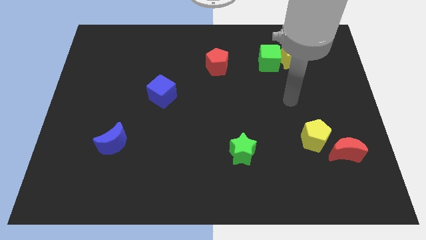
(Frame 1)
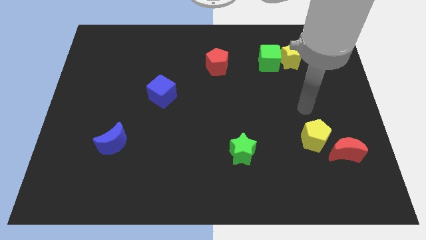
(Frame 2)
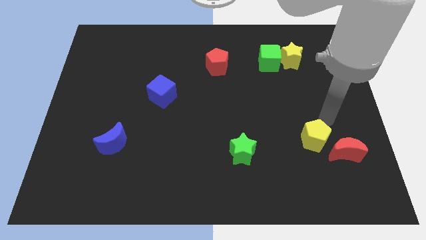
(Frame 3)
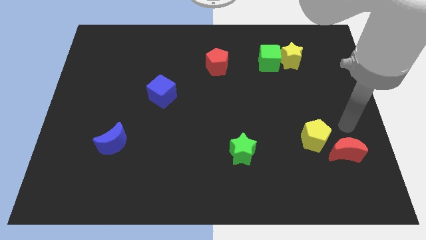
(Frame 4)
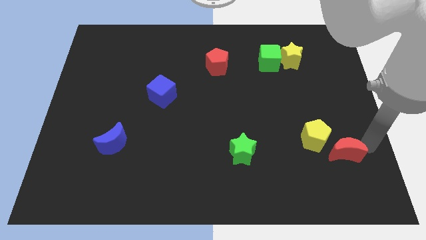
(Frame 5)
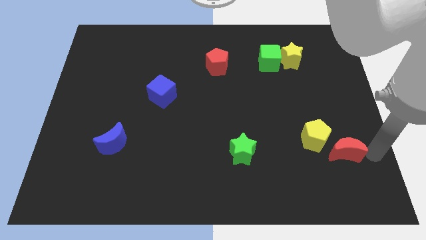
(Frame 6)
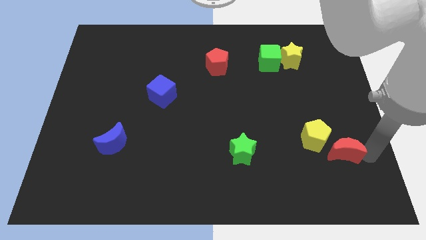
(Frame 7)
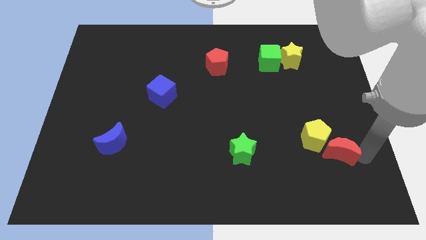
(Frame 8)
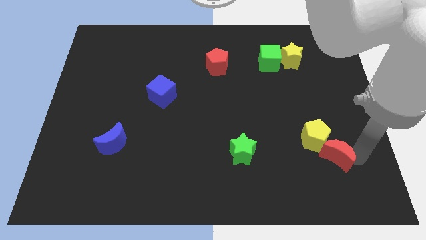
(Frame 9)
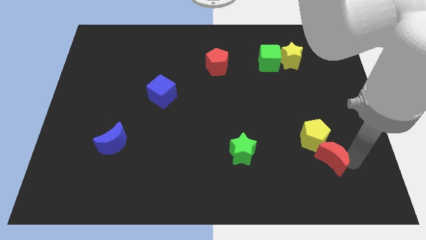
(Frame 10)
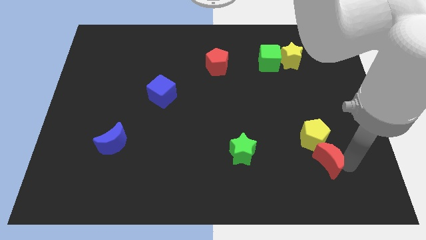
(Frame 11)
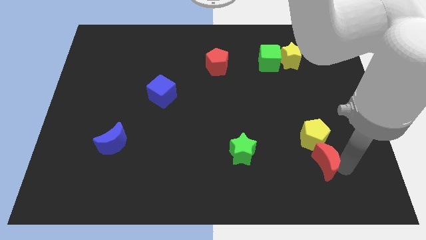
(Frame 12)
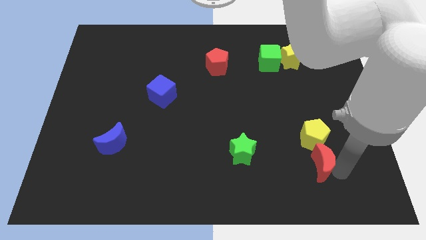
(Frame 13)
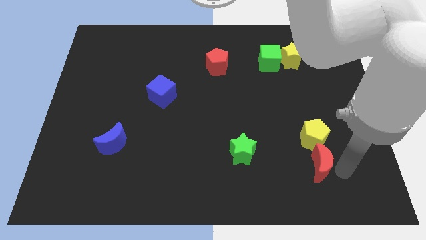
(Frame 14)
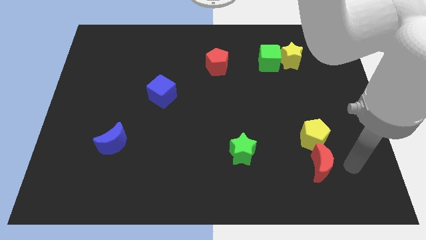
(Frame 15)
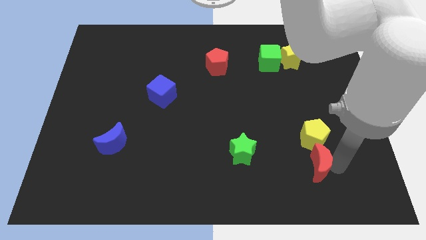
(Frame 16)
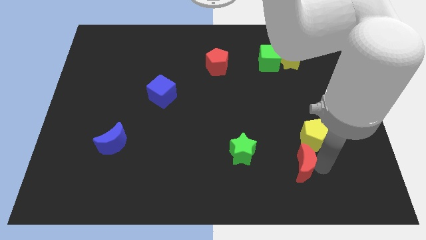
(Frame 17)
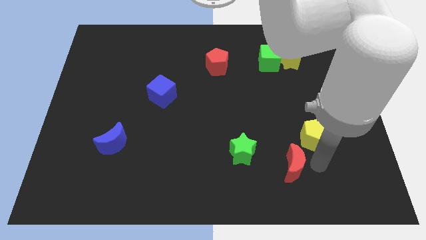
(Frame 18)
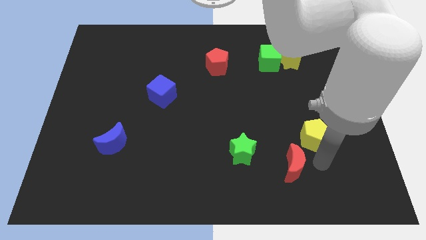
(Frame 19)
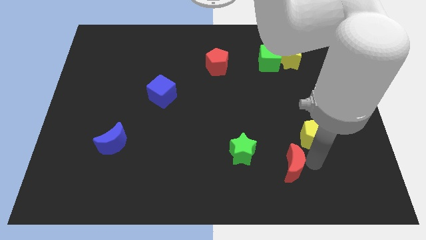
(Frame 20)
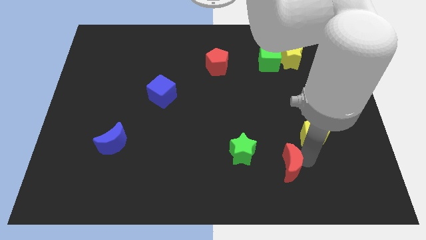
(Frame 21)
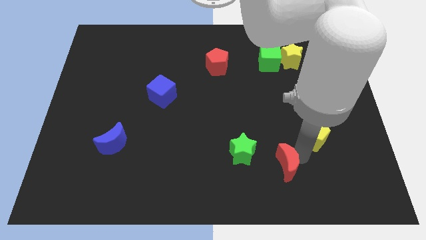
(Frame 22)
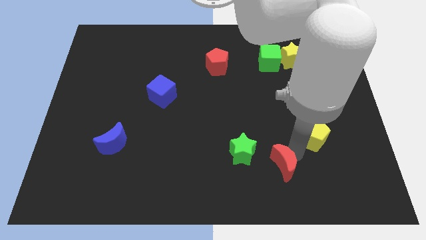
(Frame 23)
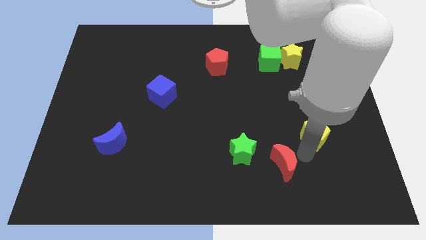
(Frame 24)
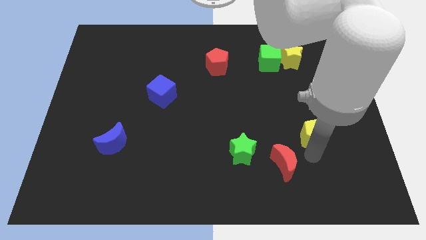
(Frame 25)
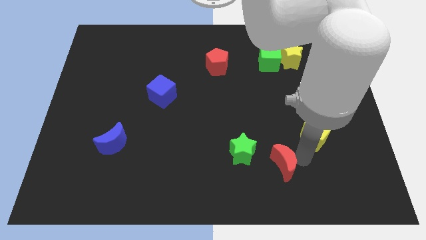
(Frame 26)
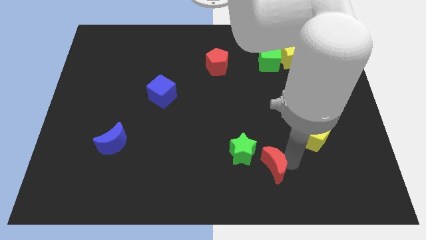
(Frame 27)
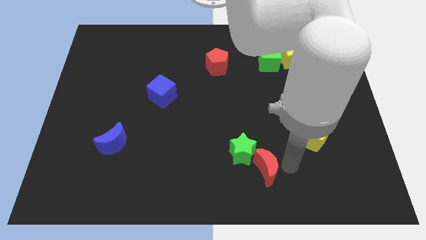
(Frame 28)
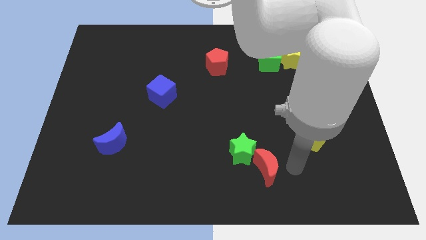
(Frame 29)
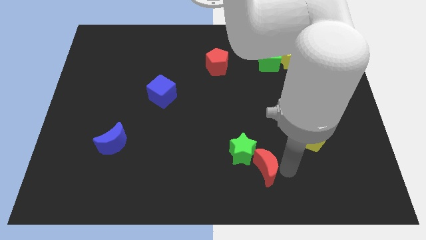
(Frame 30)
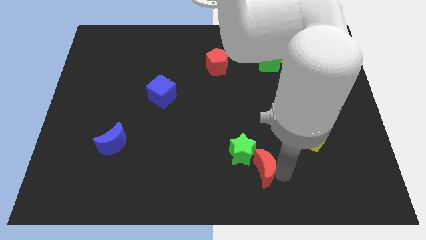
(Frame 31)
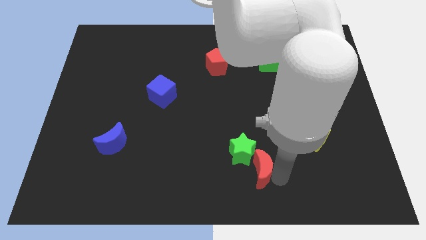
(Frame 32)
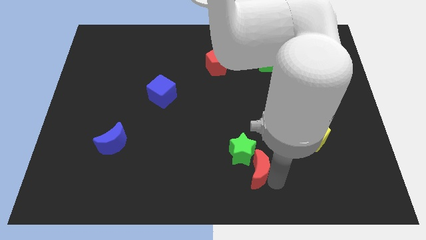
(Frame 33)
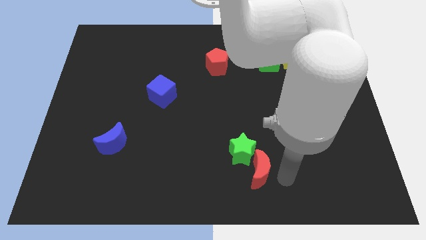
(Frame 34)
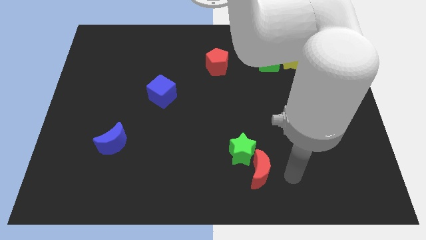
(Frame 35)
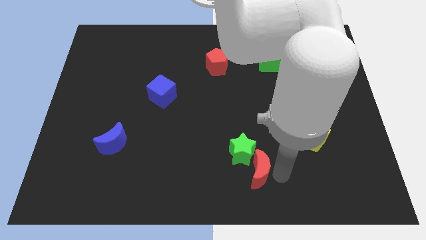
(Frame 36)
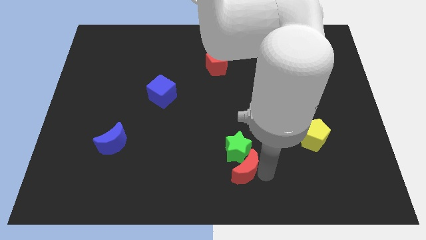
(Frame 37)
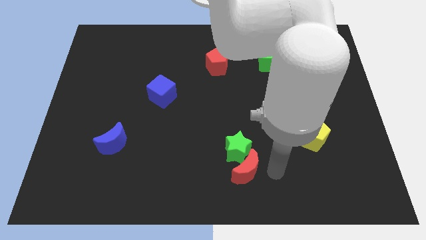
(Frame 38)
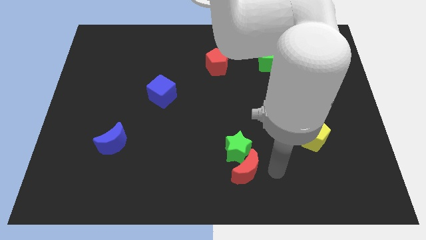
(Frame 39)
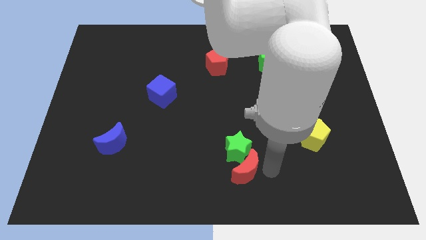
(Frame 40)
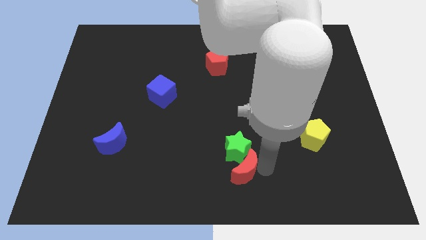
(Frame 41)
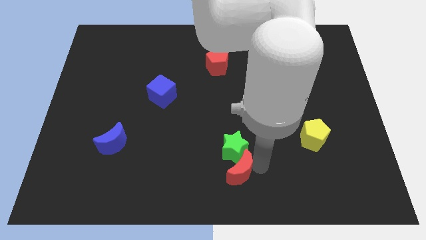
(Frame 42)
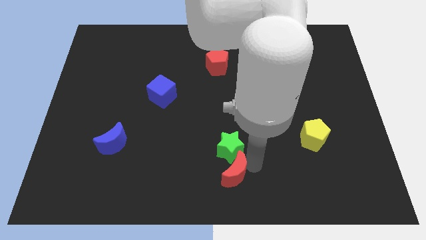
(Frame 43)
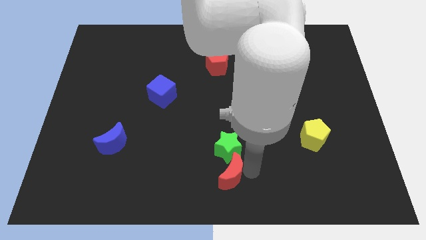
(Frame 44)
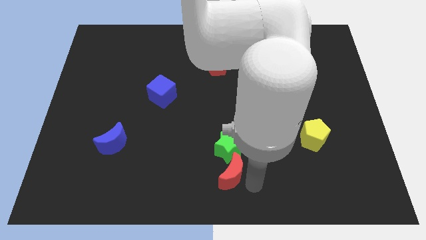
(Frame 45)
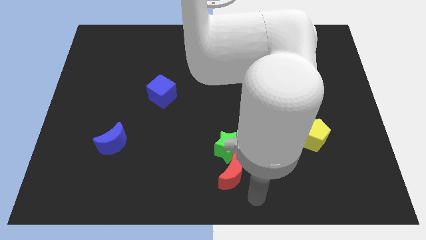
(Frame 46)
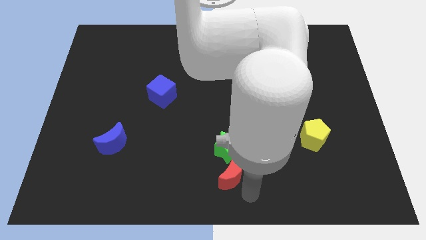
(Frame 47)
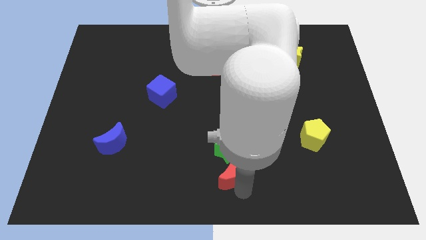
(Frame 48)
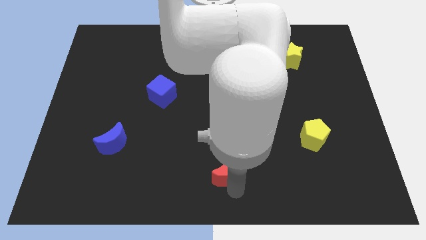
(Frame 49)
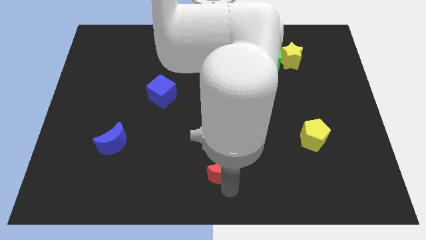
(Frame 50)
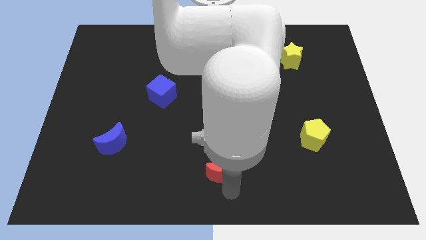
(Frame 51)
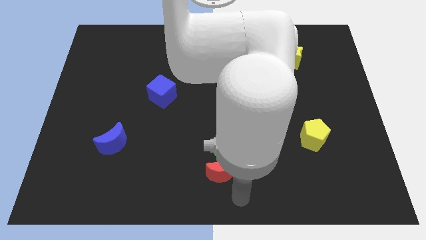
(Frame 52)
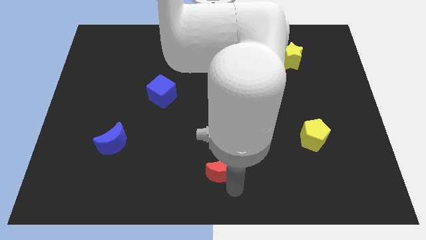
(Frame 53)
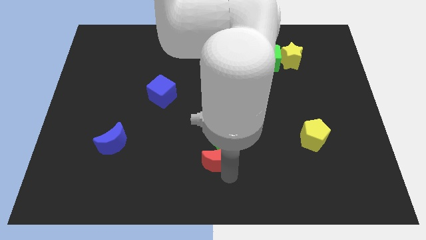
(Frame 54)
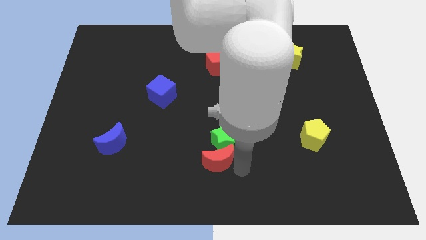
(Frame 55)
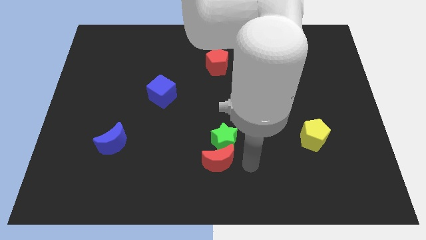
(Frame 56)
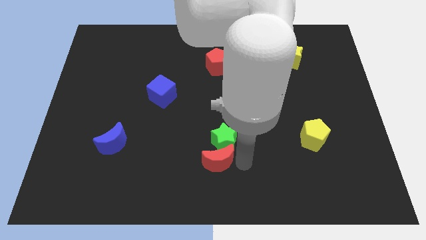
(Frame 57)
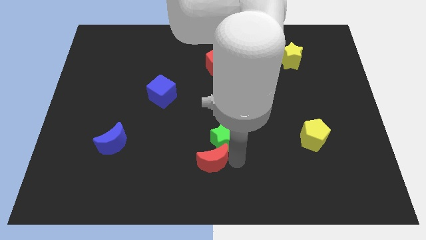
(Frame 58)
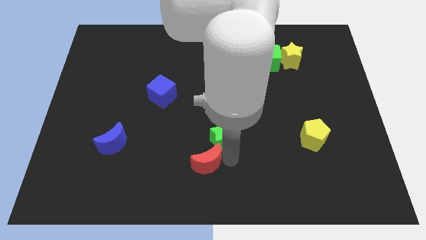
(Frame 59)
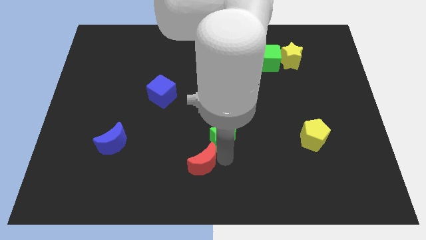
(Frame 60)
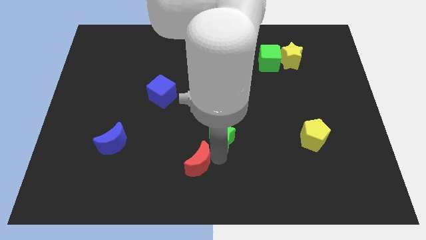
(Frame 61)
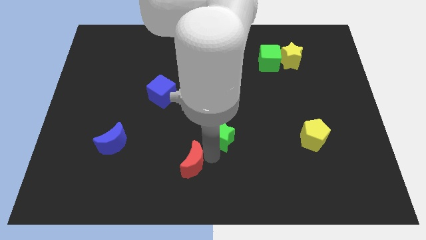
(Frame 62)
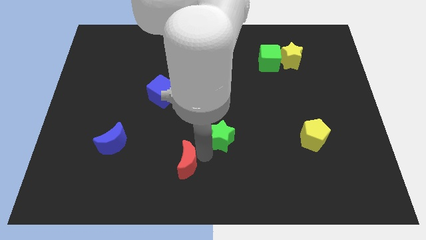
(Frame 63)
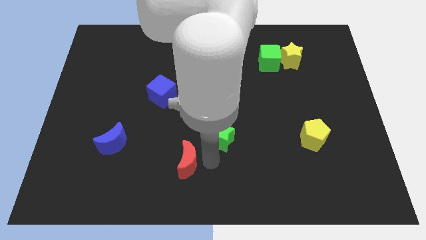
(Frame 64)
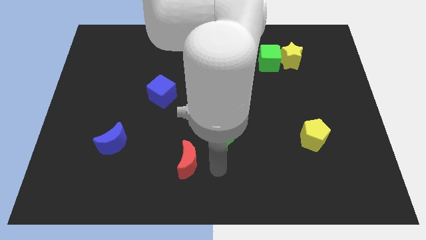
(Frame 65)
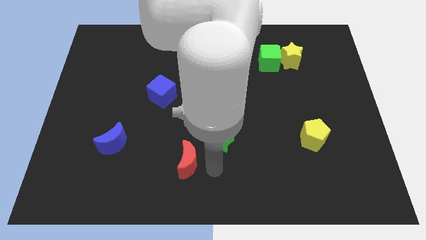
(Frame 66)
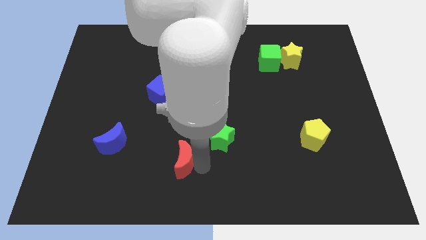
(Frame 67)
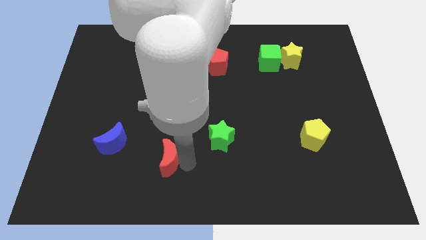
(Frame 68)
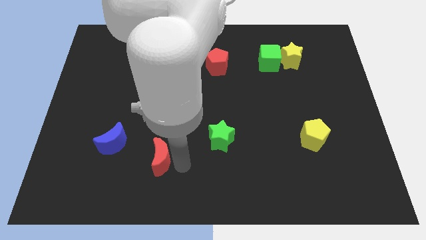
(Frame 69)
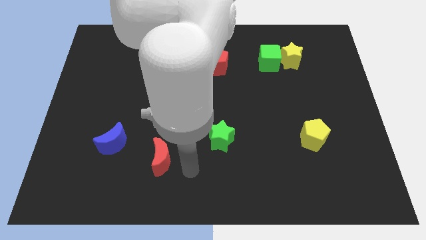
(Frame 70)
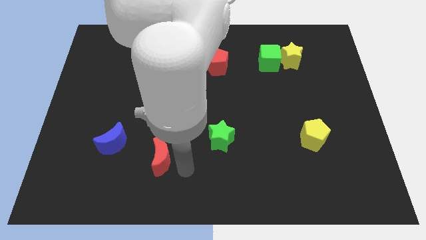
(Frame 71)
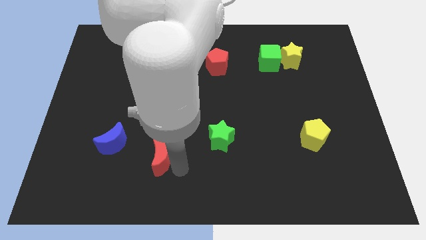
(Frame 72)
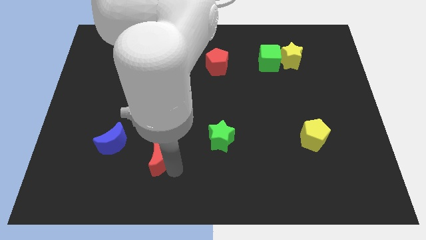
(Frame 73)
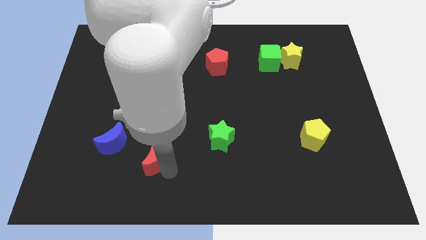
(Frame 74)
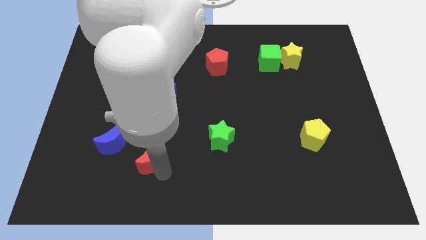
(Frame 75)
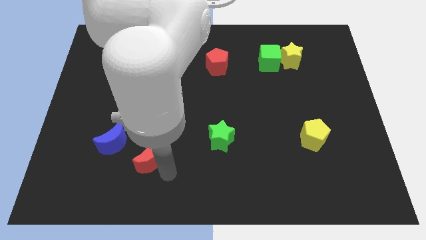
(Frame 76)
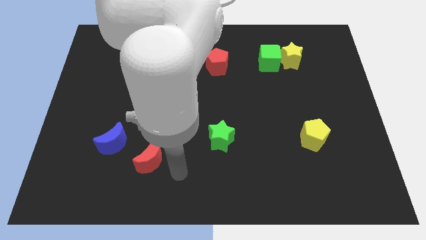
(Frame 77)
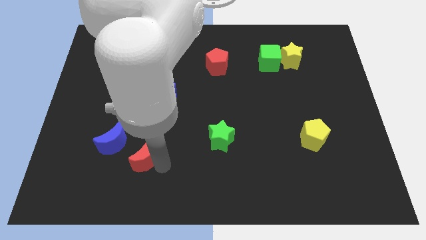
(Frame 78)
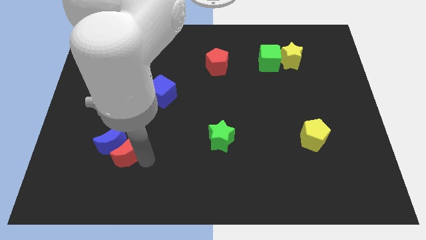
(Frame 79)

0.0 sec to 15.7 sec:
push the red moon towards the blue moon
